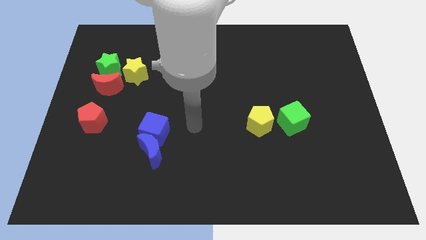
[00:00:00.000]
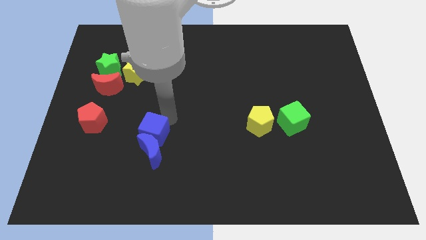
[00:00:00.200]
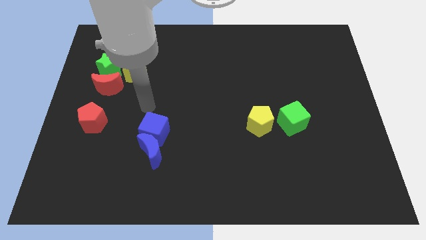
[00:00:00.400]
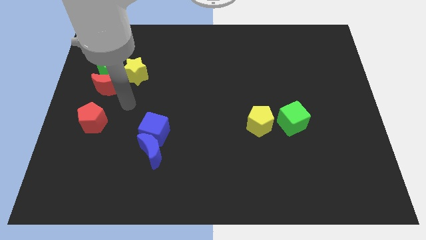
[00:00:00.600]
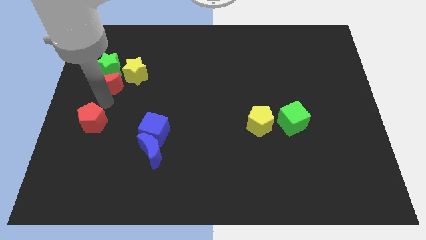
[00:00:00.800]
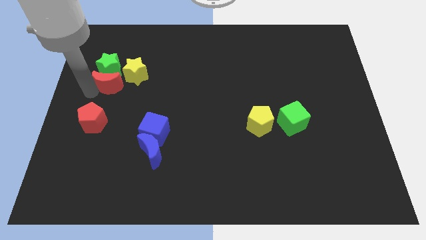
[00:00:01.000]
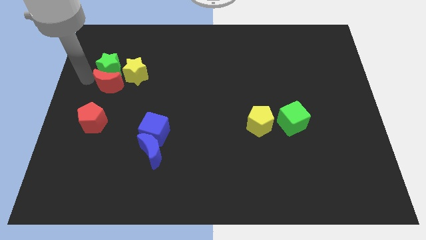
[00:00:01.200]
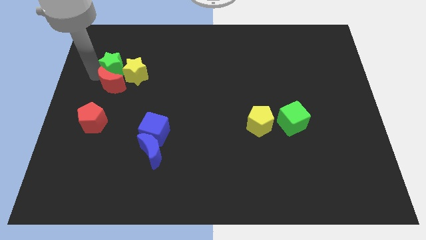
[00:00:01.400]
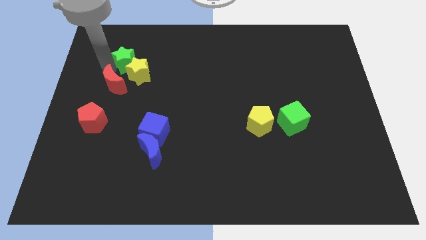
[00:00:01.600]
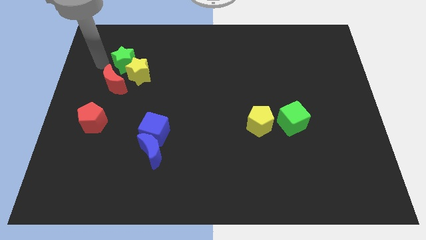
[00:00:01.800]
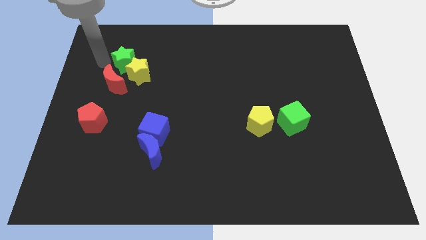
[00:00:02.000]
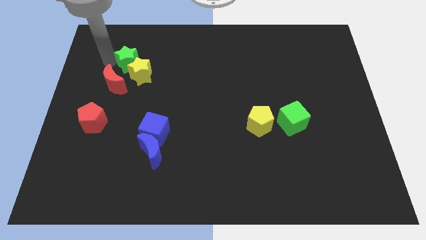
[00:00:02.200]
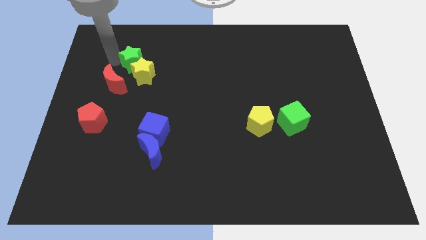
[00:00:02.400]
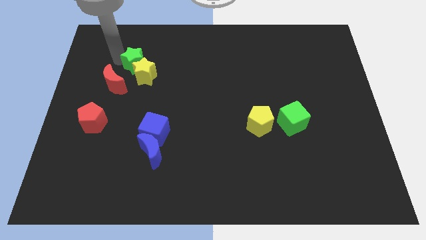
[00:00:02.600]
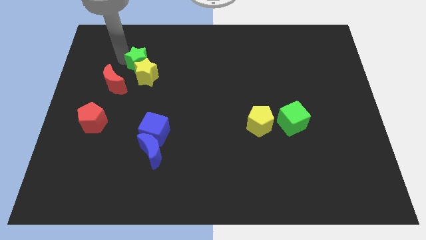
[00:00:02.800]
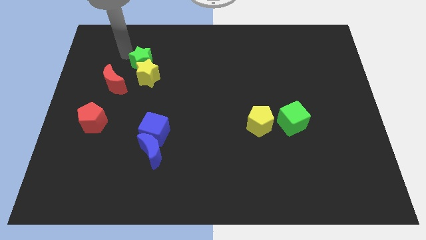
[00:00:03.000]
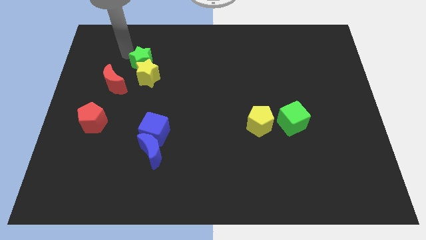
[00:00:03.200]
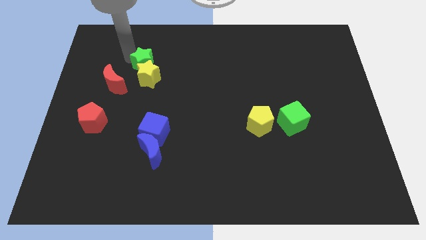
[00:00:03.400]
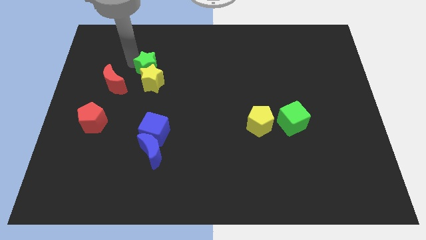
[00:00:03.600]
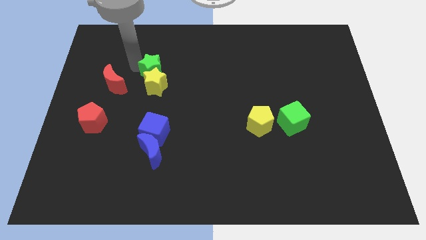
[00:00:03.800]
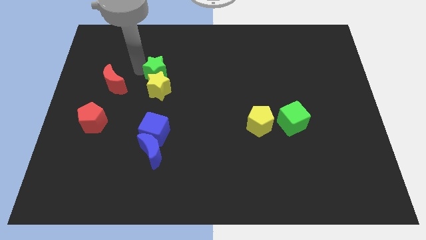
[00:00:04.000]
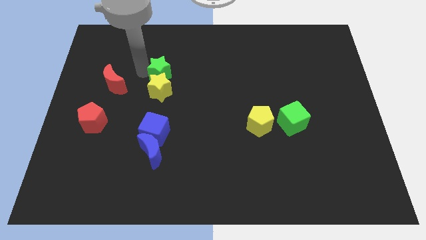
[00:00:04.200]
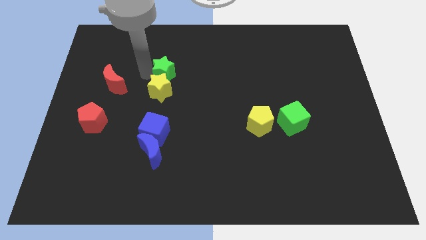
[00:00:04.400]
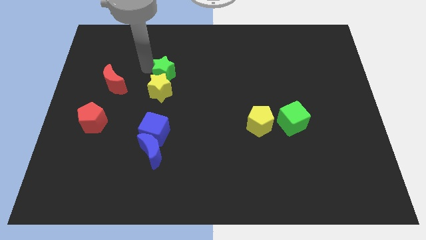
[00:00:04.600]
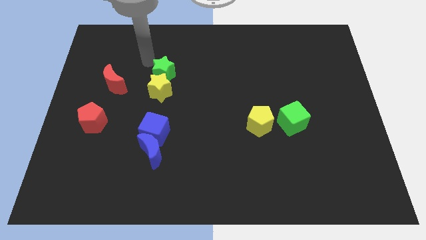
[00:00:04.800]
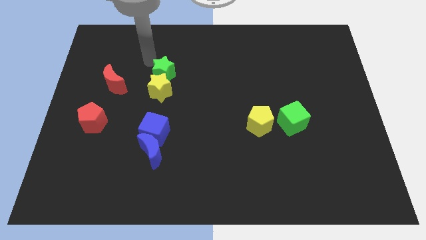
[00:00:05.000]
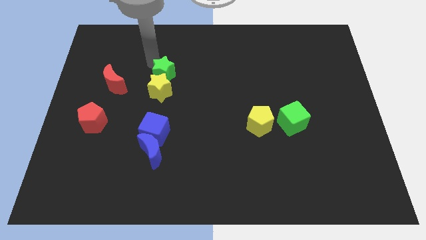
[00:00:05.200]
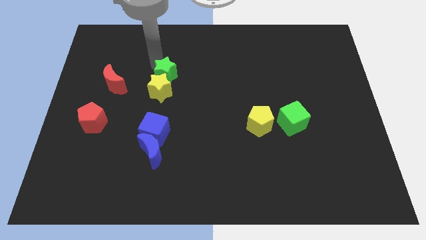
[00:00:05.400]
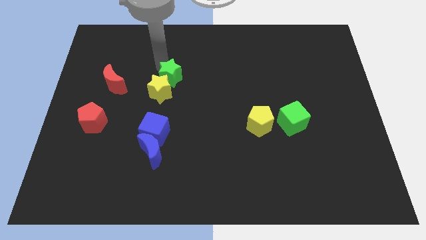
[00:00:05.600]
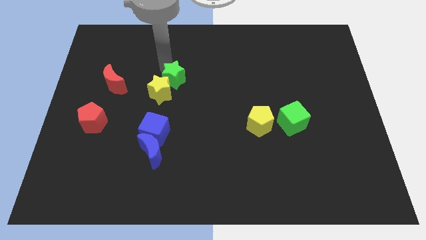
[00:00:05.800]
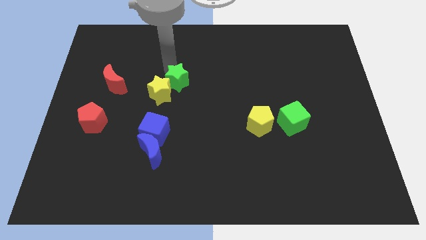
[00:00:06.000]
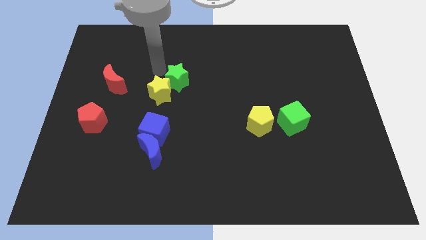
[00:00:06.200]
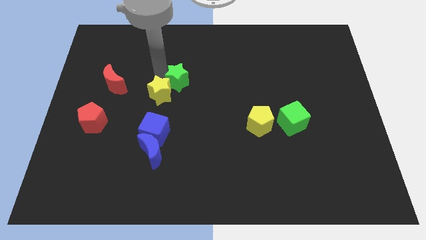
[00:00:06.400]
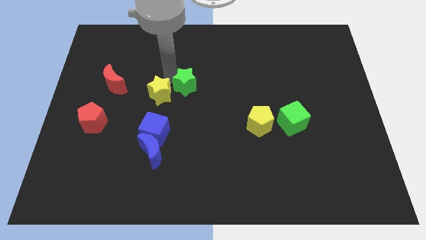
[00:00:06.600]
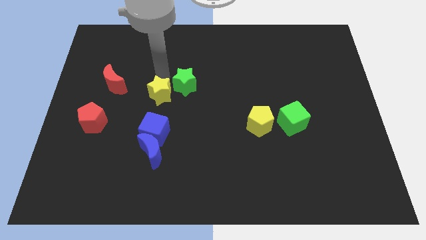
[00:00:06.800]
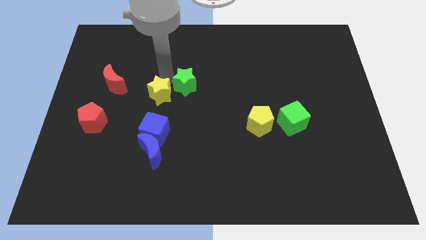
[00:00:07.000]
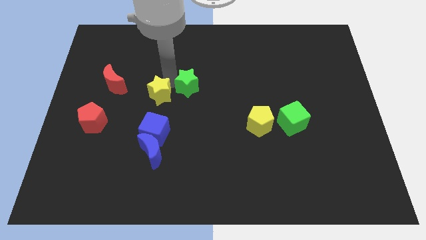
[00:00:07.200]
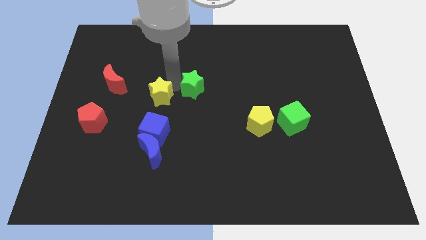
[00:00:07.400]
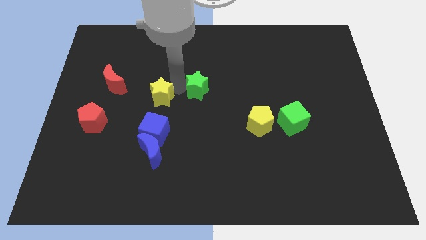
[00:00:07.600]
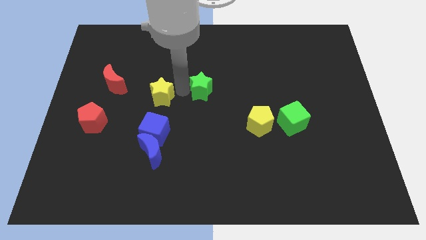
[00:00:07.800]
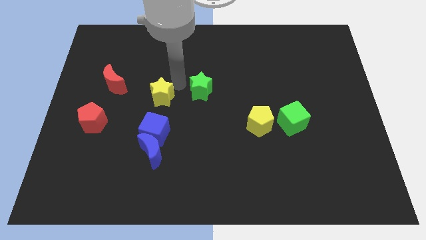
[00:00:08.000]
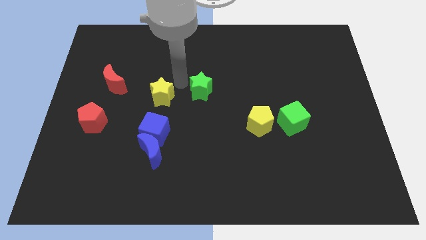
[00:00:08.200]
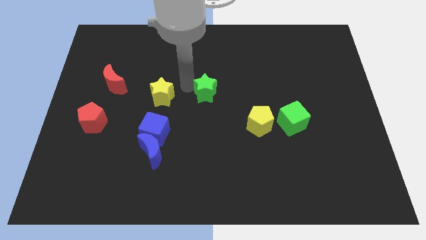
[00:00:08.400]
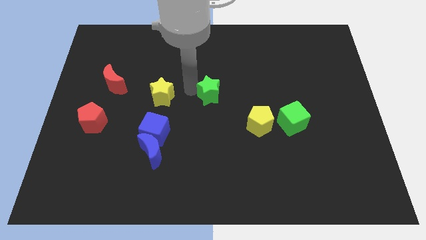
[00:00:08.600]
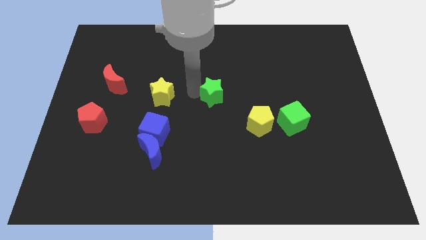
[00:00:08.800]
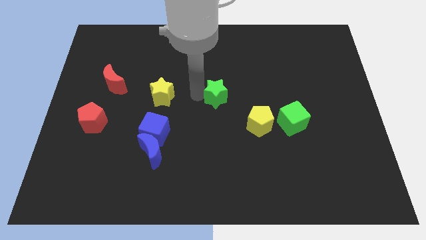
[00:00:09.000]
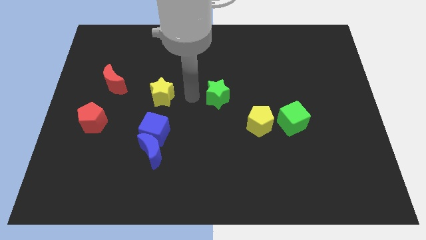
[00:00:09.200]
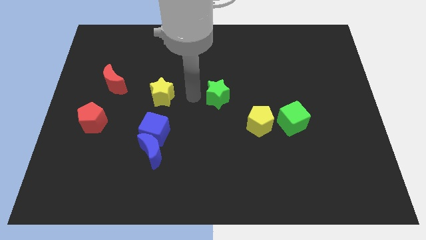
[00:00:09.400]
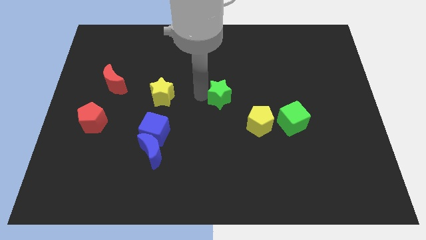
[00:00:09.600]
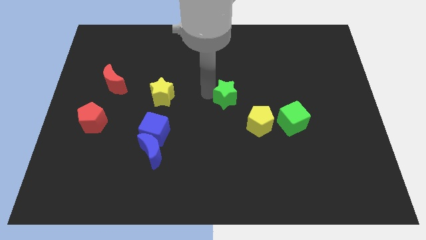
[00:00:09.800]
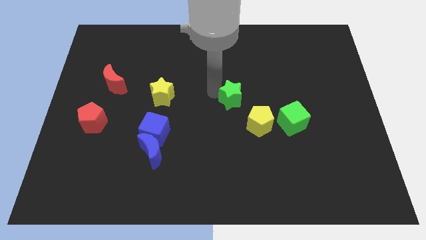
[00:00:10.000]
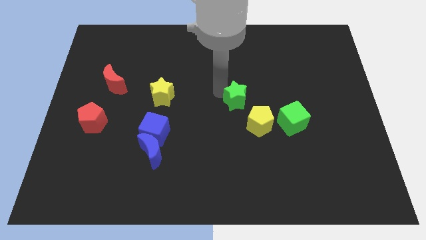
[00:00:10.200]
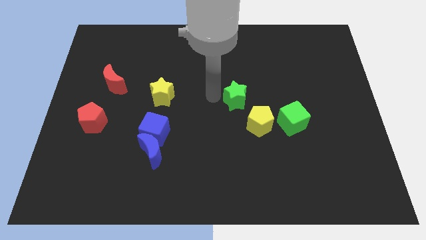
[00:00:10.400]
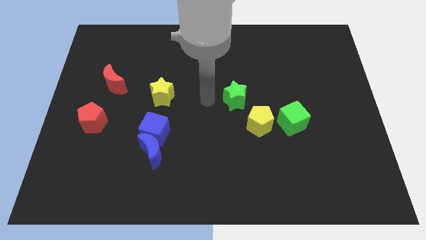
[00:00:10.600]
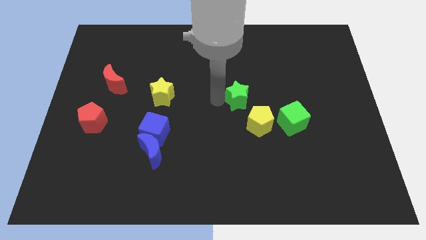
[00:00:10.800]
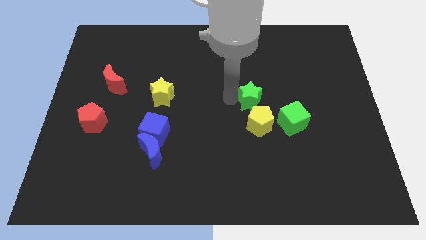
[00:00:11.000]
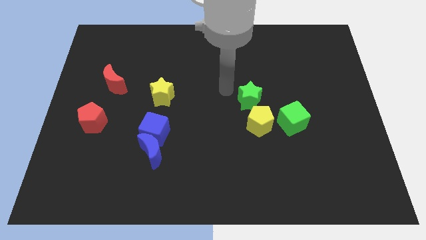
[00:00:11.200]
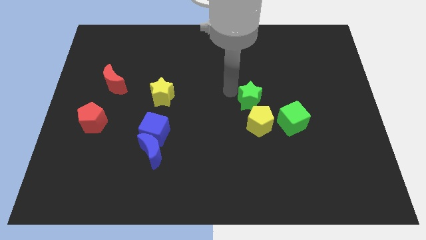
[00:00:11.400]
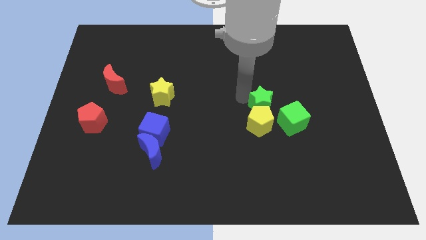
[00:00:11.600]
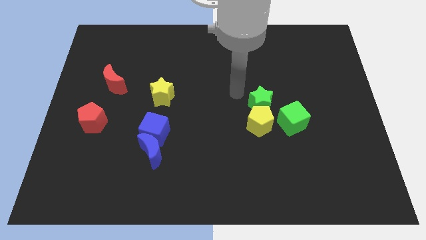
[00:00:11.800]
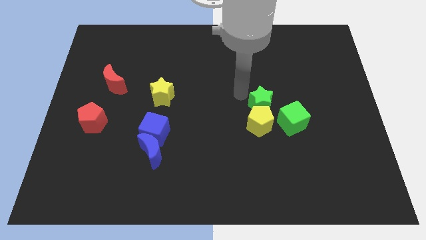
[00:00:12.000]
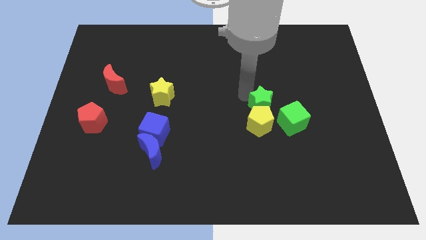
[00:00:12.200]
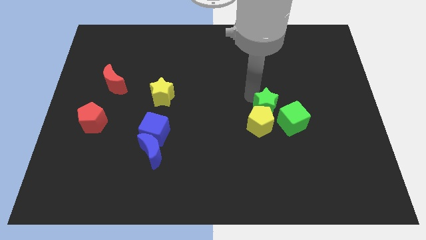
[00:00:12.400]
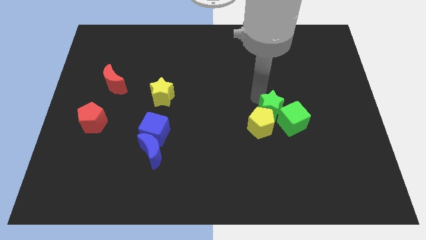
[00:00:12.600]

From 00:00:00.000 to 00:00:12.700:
put the green star next to the green cube

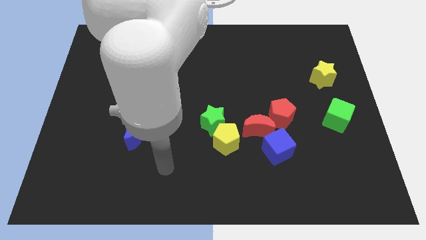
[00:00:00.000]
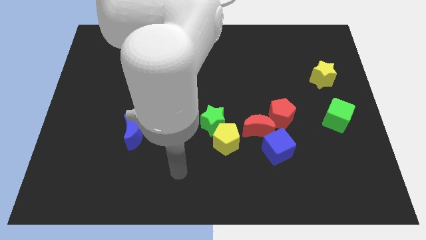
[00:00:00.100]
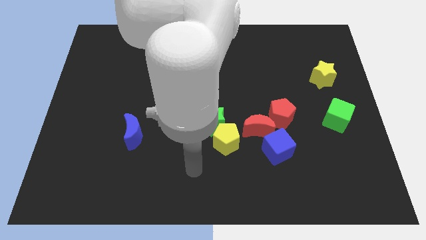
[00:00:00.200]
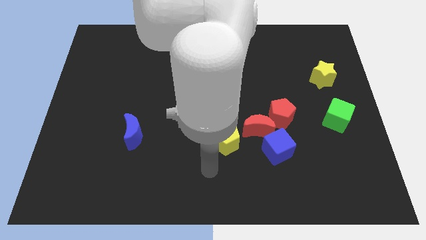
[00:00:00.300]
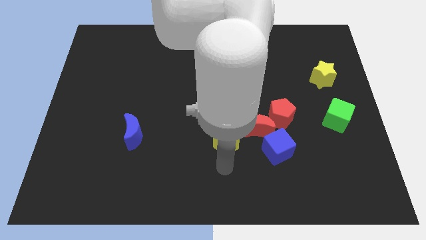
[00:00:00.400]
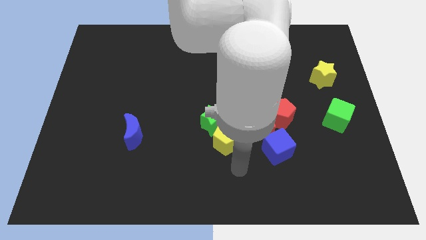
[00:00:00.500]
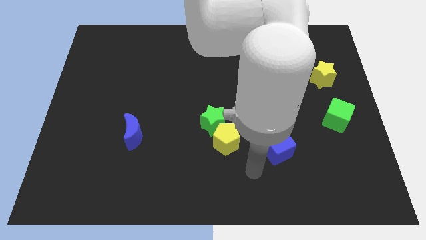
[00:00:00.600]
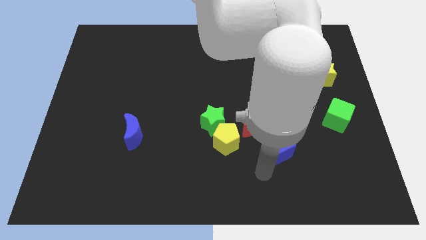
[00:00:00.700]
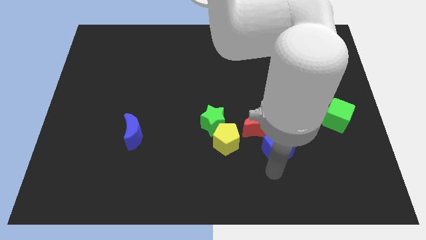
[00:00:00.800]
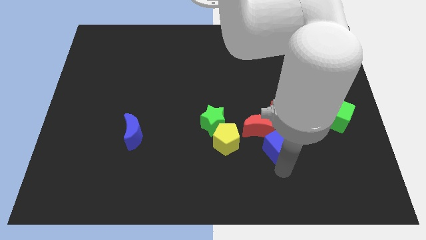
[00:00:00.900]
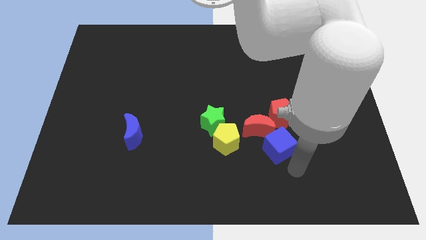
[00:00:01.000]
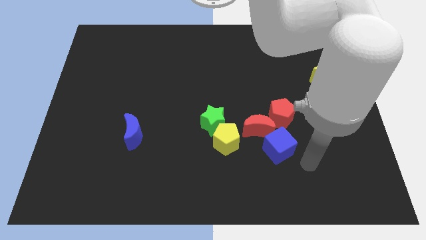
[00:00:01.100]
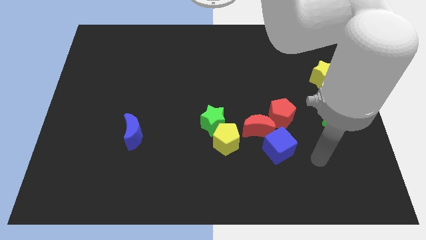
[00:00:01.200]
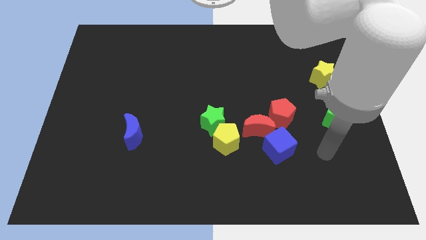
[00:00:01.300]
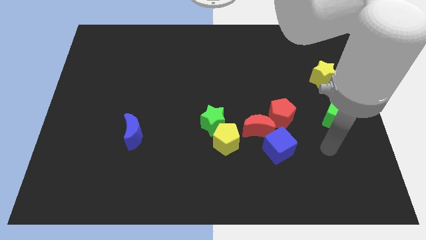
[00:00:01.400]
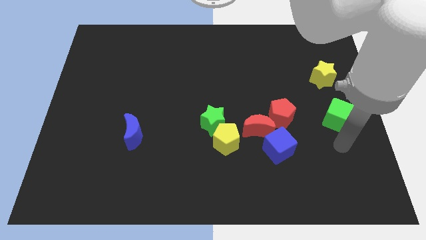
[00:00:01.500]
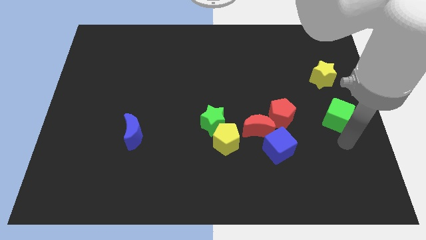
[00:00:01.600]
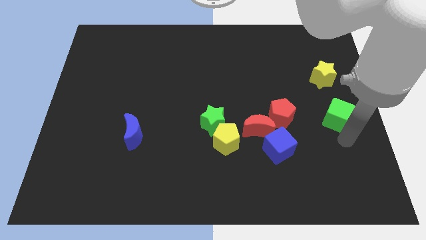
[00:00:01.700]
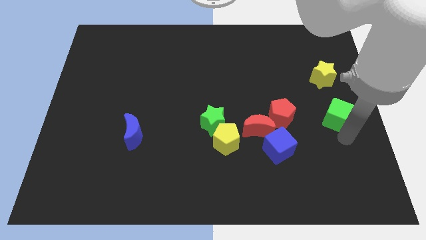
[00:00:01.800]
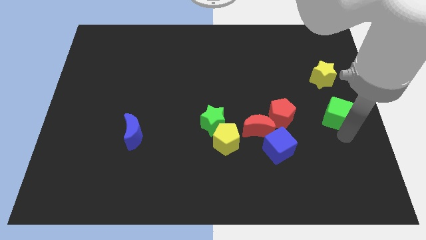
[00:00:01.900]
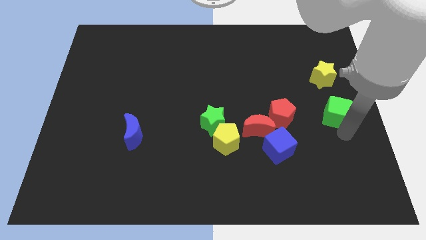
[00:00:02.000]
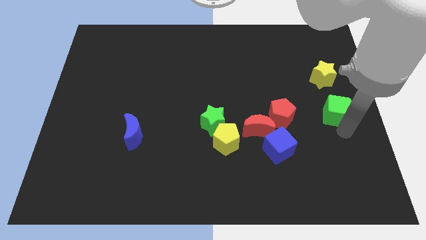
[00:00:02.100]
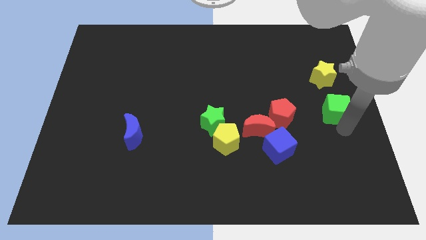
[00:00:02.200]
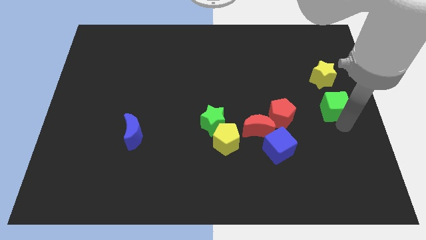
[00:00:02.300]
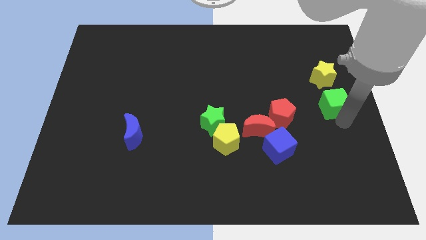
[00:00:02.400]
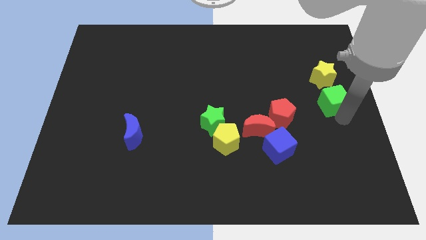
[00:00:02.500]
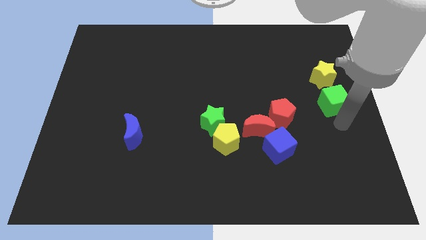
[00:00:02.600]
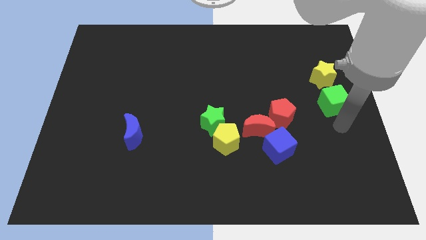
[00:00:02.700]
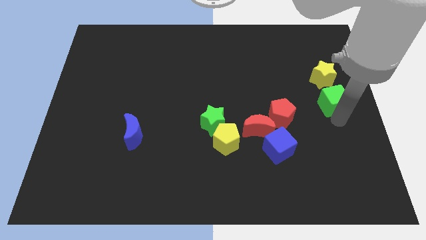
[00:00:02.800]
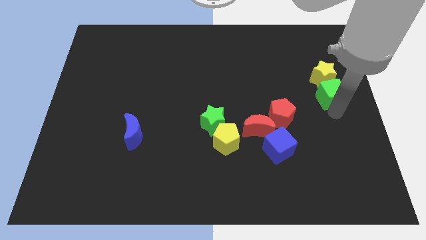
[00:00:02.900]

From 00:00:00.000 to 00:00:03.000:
put the green cube towards the yellow star
